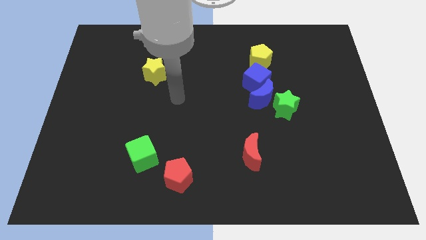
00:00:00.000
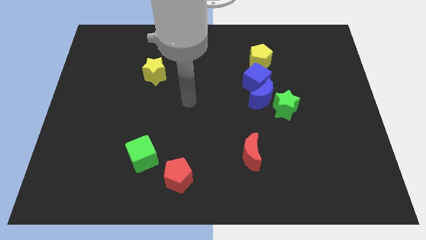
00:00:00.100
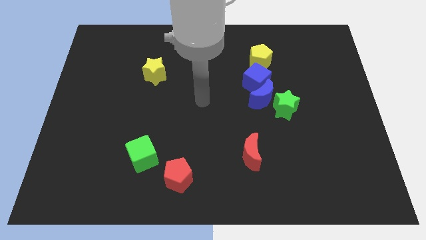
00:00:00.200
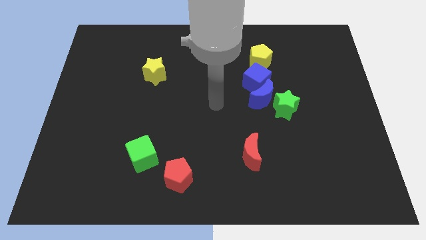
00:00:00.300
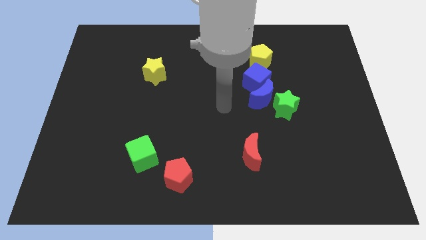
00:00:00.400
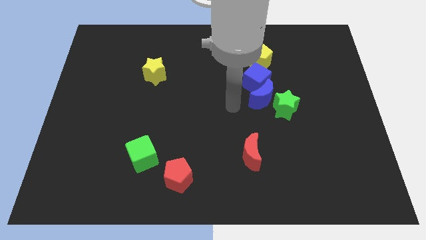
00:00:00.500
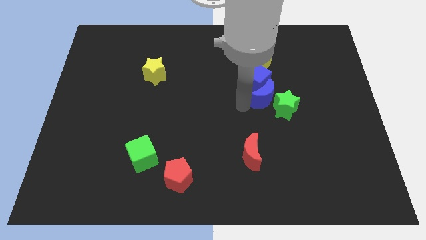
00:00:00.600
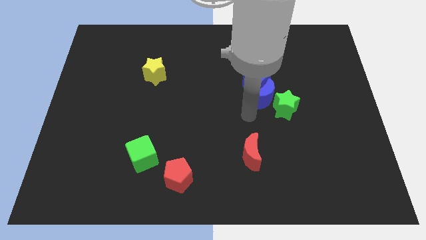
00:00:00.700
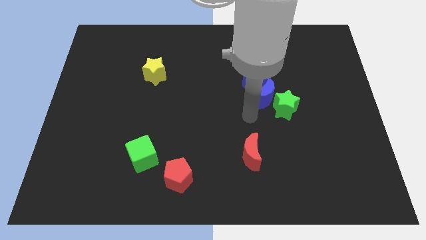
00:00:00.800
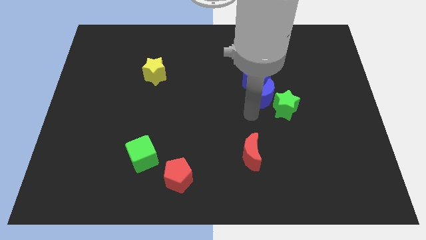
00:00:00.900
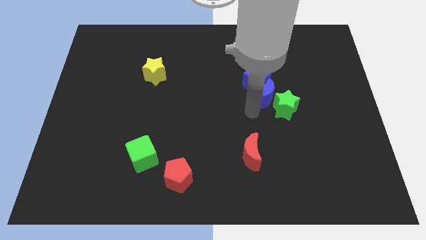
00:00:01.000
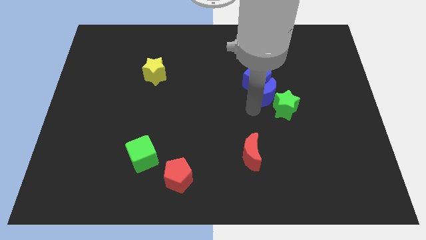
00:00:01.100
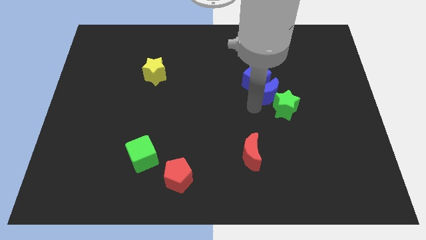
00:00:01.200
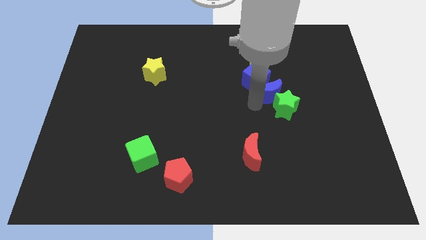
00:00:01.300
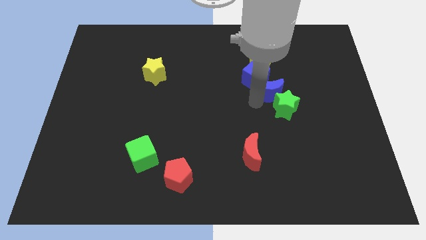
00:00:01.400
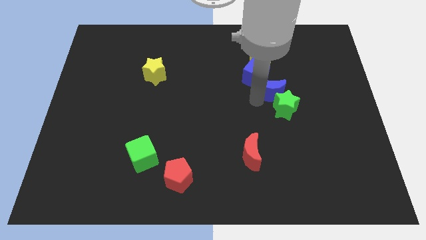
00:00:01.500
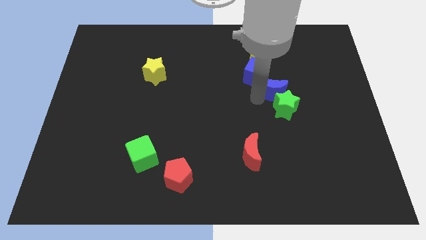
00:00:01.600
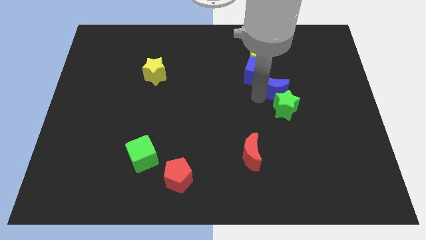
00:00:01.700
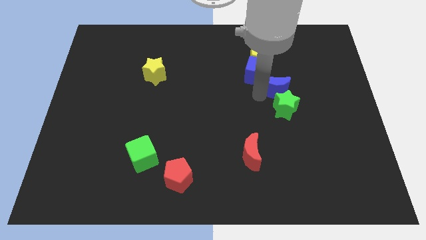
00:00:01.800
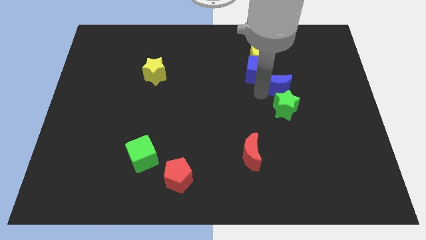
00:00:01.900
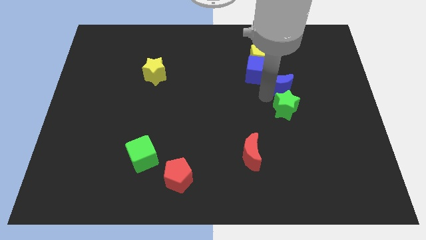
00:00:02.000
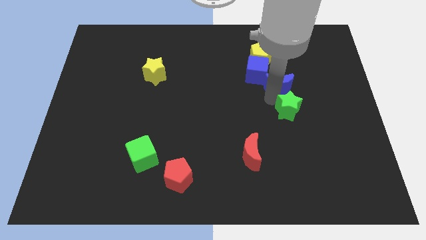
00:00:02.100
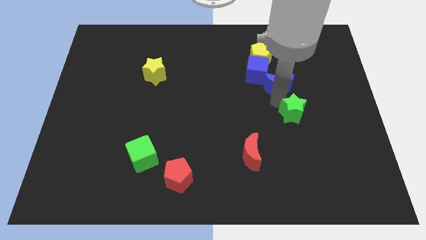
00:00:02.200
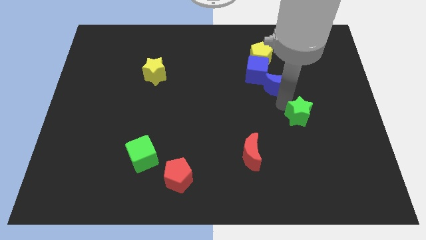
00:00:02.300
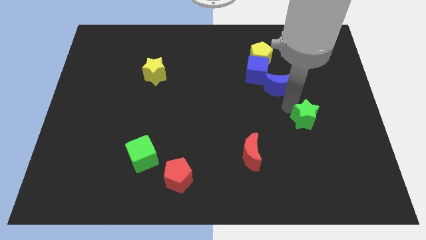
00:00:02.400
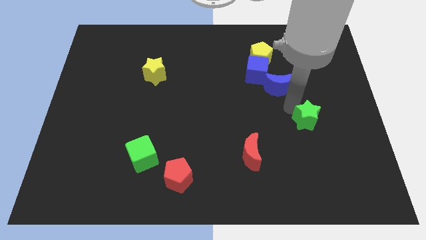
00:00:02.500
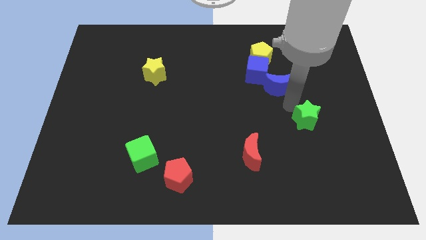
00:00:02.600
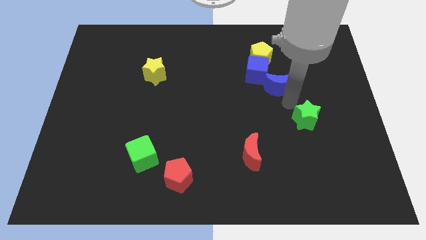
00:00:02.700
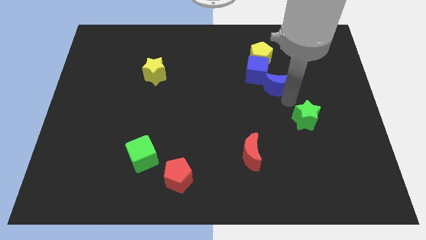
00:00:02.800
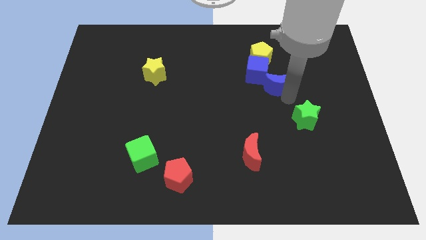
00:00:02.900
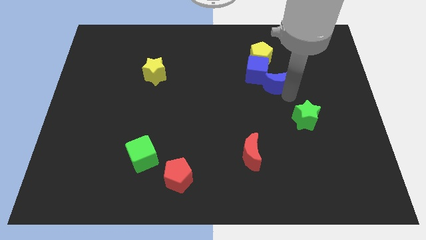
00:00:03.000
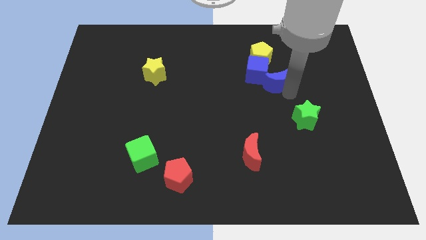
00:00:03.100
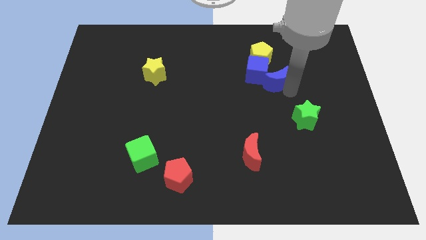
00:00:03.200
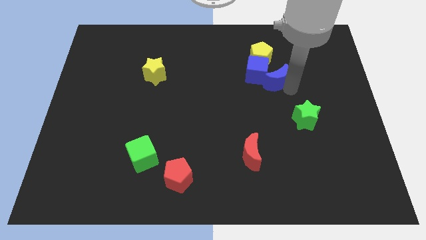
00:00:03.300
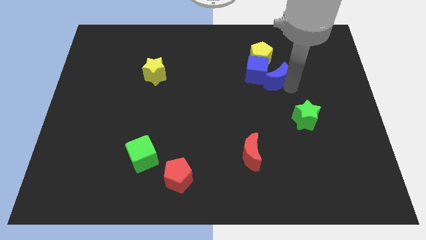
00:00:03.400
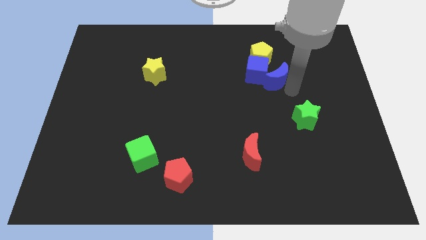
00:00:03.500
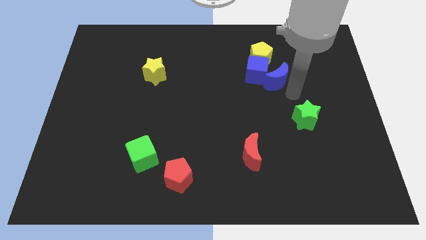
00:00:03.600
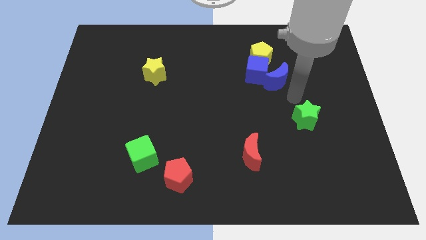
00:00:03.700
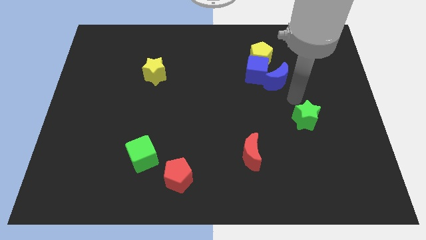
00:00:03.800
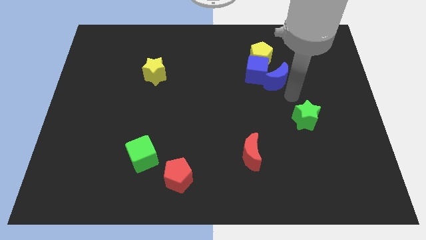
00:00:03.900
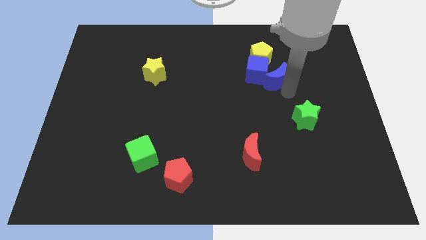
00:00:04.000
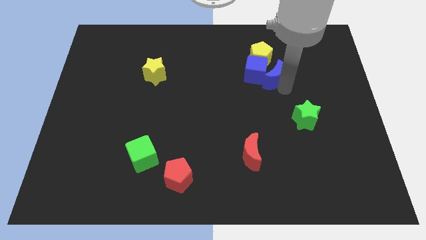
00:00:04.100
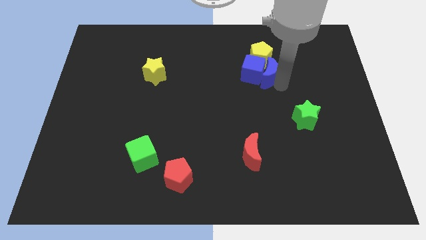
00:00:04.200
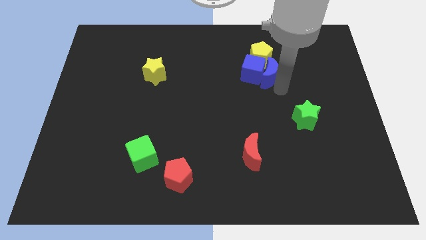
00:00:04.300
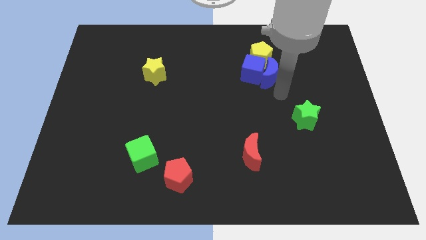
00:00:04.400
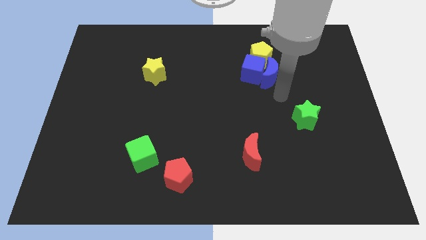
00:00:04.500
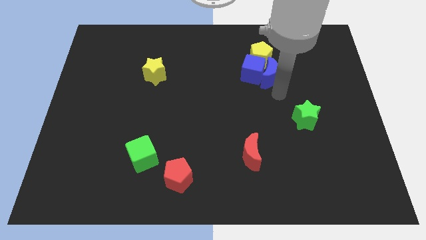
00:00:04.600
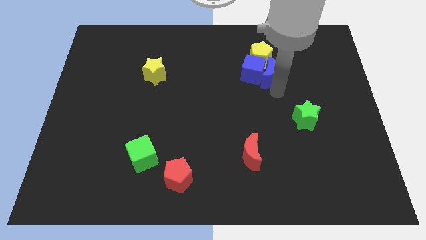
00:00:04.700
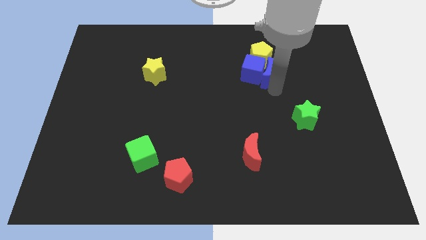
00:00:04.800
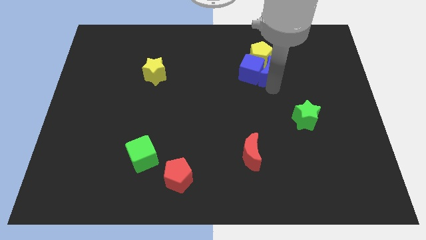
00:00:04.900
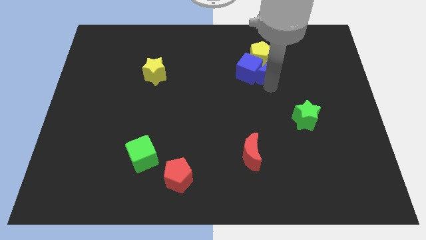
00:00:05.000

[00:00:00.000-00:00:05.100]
put the blue moon to the yellow pentagon

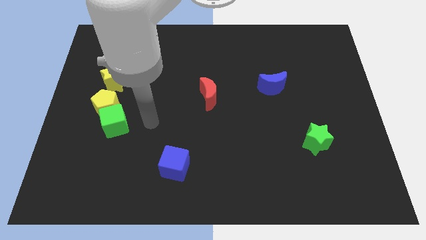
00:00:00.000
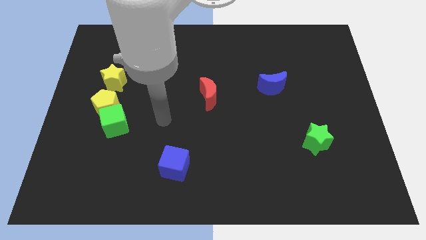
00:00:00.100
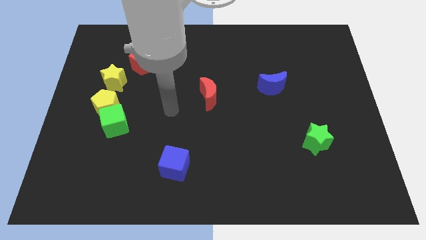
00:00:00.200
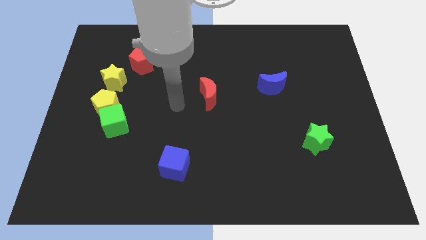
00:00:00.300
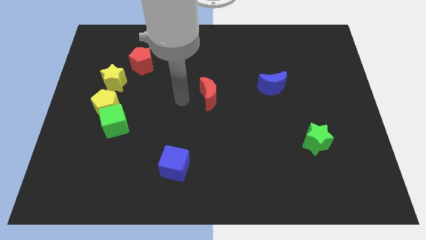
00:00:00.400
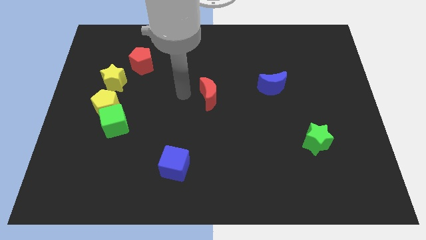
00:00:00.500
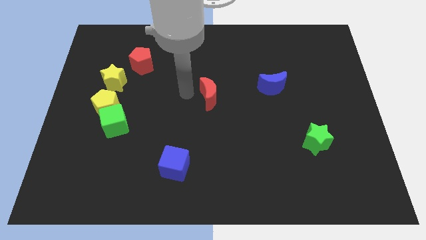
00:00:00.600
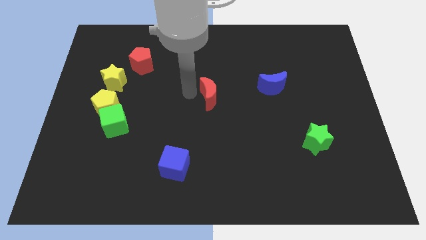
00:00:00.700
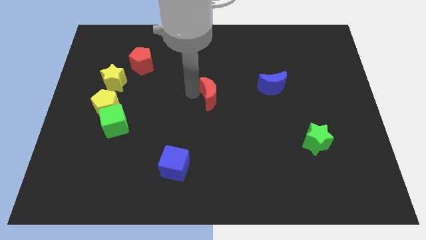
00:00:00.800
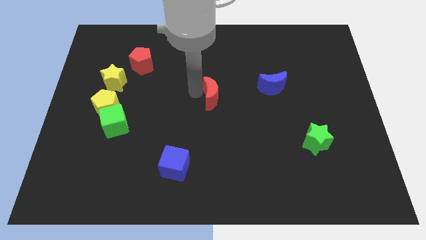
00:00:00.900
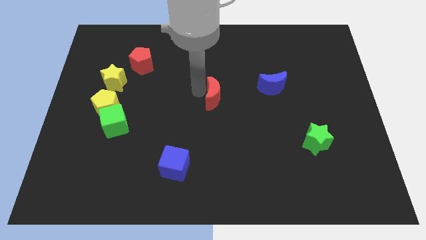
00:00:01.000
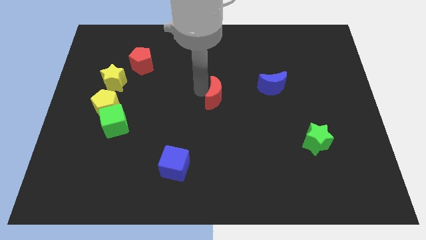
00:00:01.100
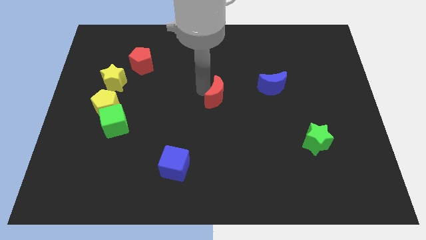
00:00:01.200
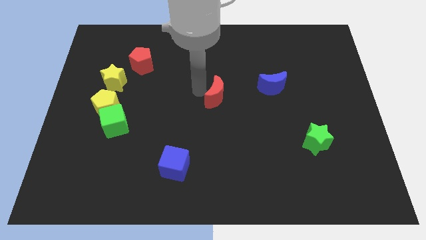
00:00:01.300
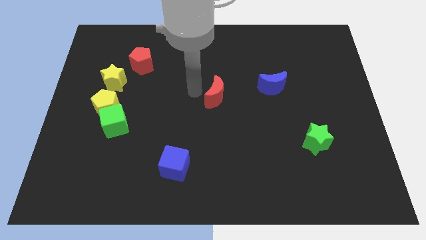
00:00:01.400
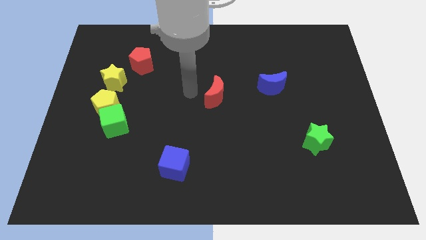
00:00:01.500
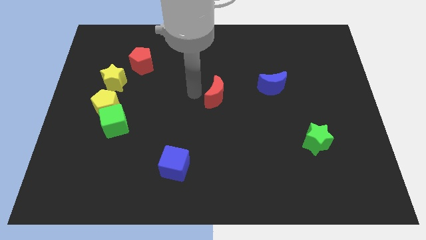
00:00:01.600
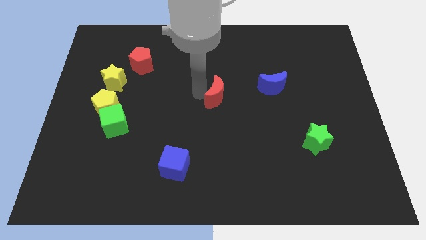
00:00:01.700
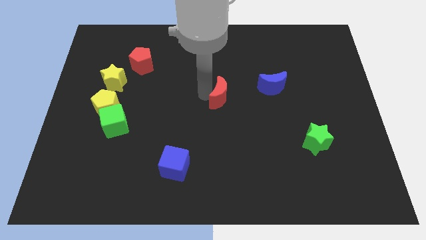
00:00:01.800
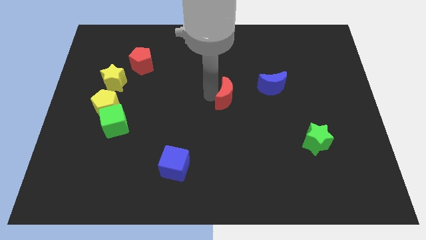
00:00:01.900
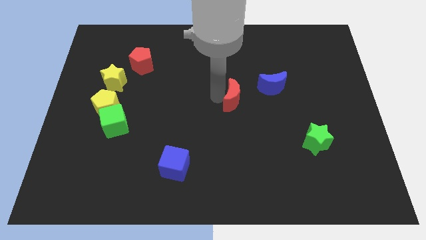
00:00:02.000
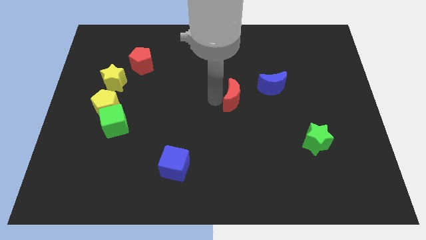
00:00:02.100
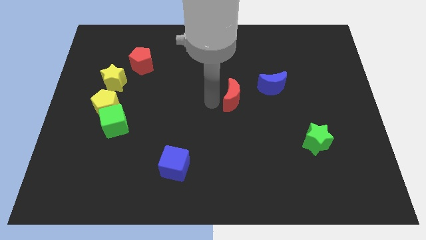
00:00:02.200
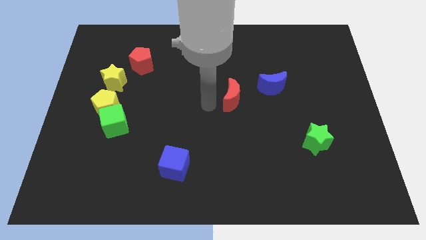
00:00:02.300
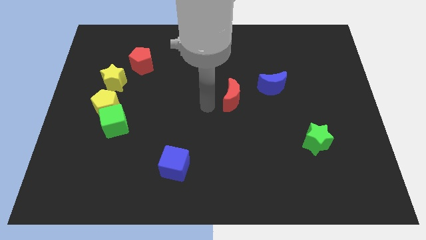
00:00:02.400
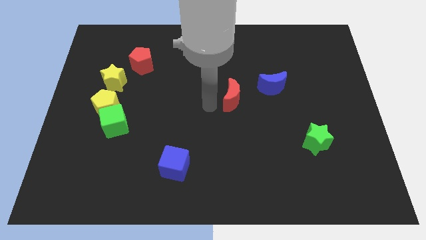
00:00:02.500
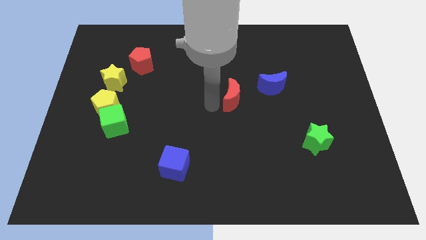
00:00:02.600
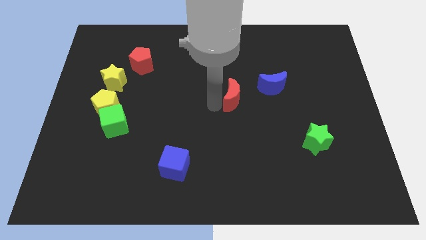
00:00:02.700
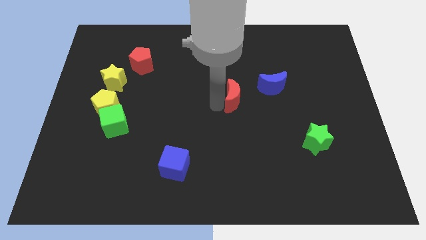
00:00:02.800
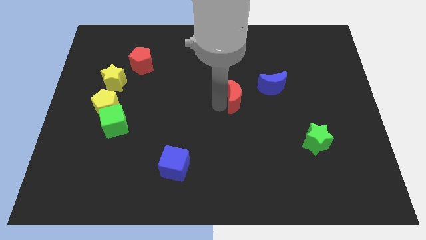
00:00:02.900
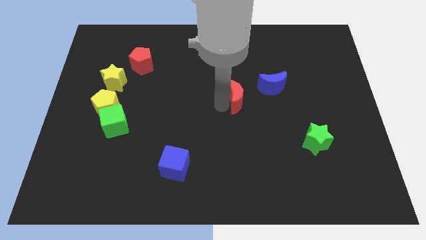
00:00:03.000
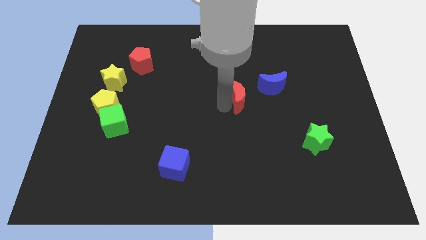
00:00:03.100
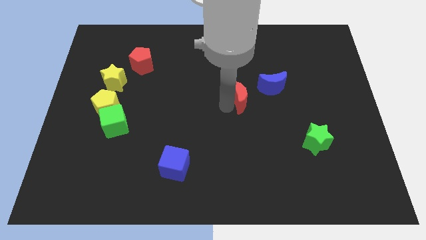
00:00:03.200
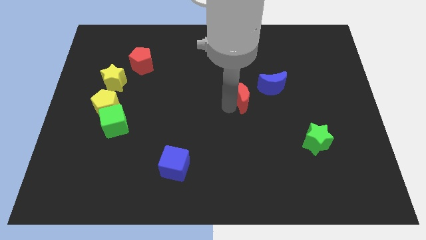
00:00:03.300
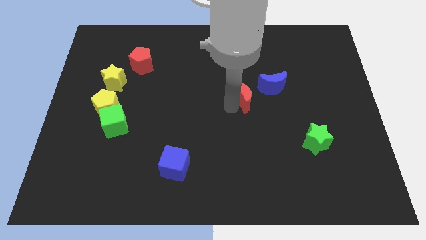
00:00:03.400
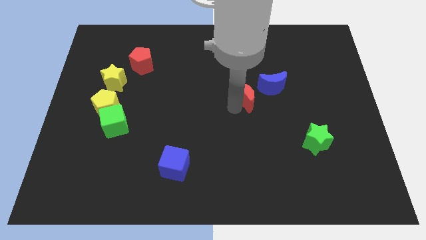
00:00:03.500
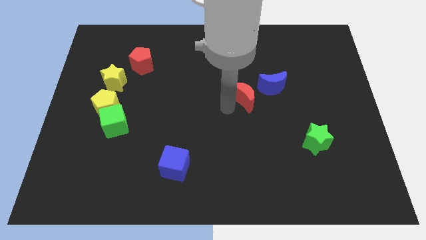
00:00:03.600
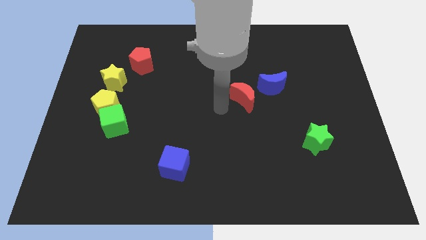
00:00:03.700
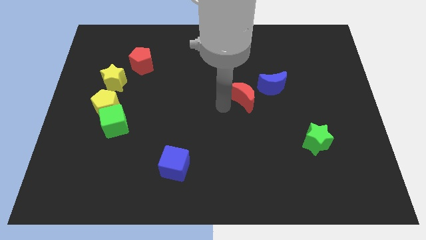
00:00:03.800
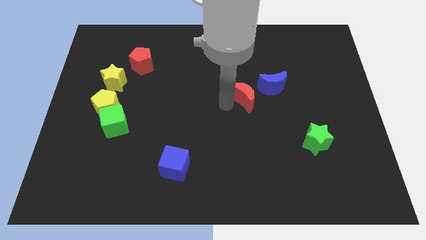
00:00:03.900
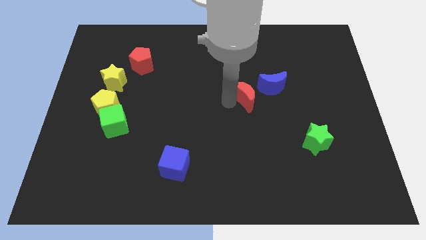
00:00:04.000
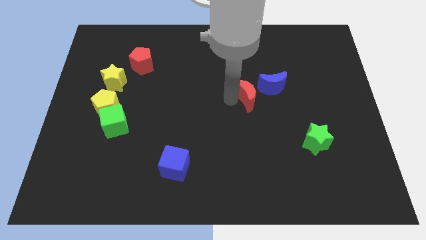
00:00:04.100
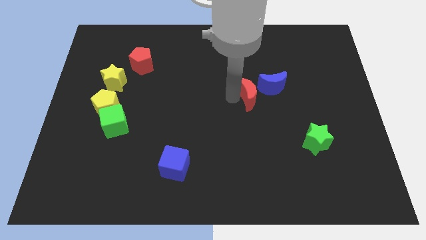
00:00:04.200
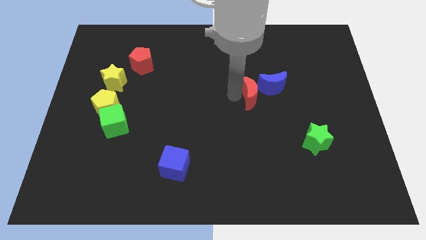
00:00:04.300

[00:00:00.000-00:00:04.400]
move the red moon close to the blue moon
